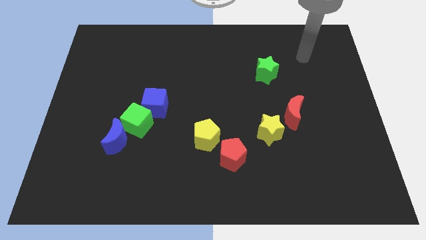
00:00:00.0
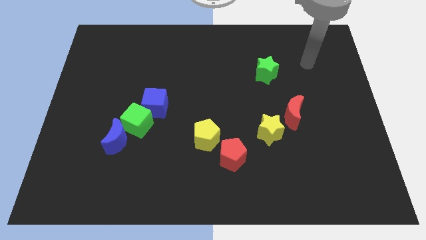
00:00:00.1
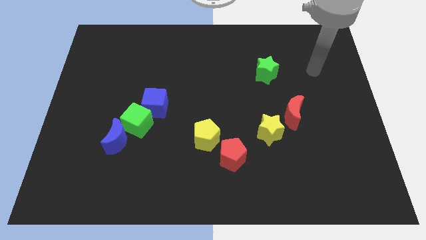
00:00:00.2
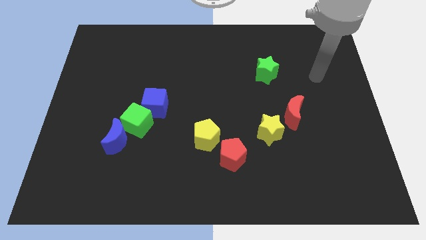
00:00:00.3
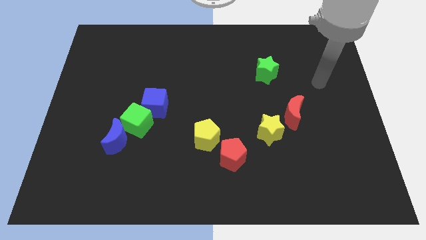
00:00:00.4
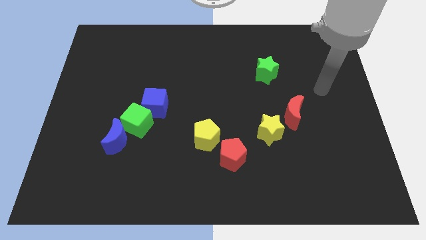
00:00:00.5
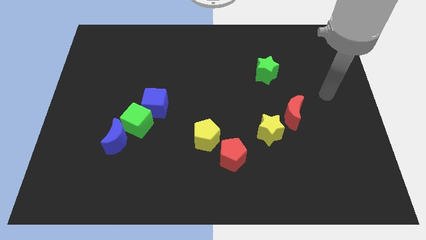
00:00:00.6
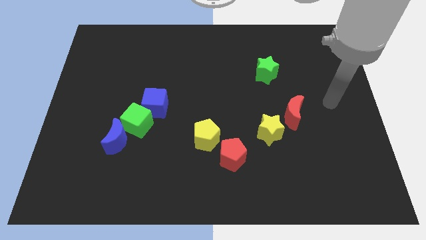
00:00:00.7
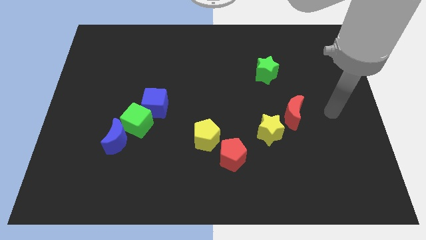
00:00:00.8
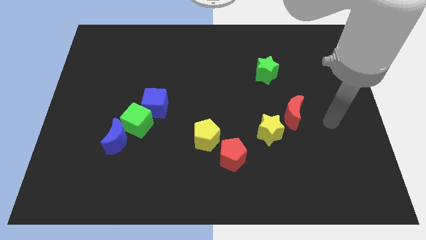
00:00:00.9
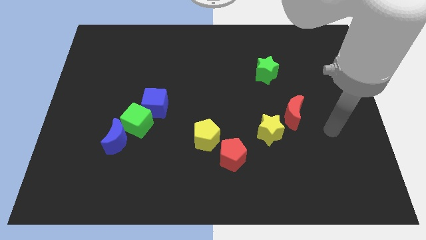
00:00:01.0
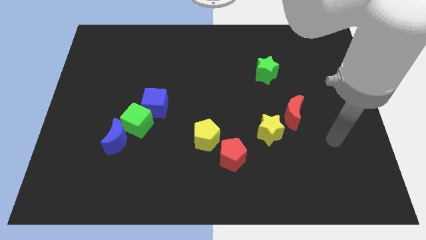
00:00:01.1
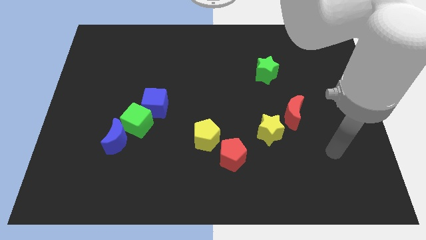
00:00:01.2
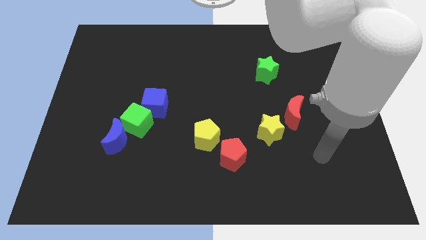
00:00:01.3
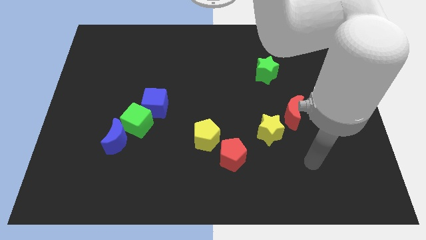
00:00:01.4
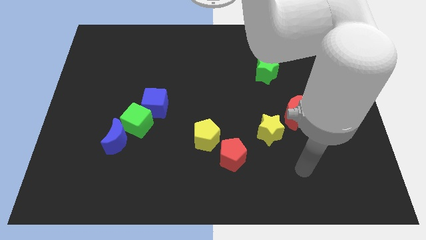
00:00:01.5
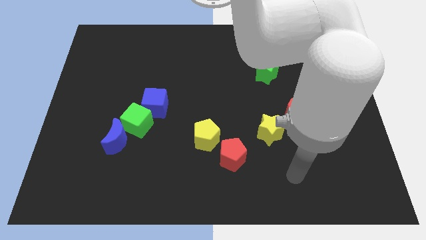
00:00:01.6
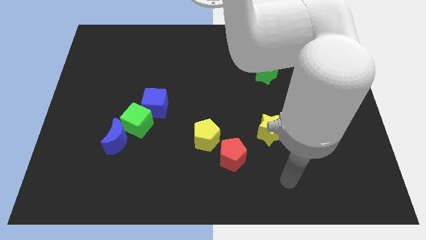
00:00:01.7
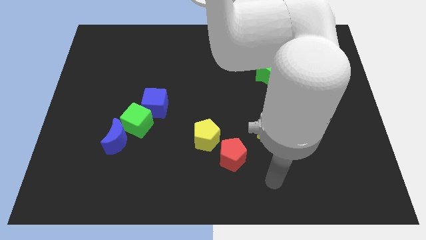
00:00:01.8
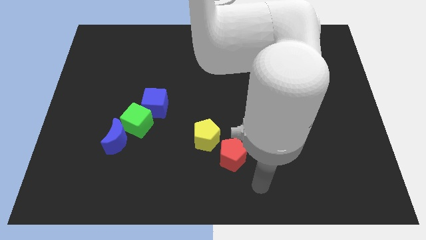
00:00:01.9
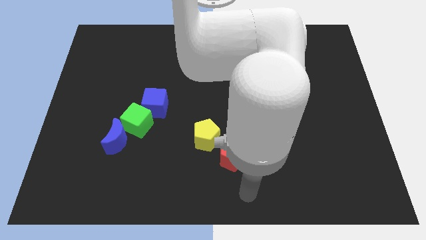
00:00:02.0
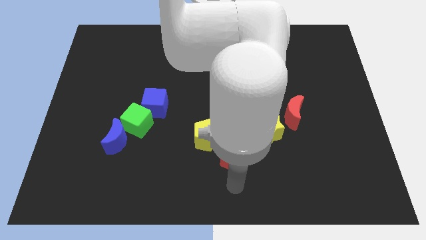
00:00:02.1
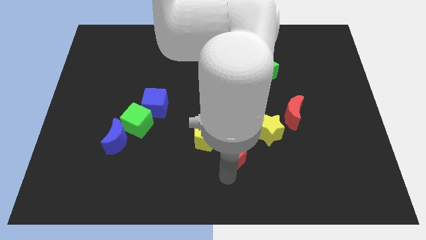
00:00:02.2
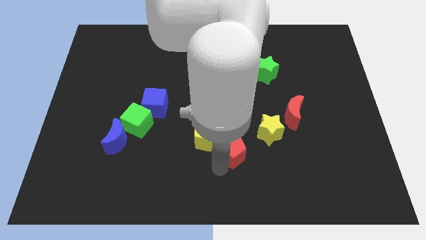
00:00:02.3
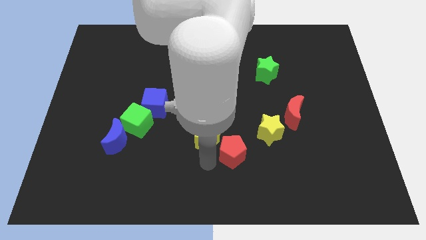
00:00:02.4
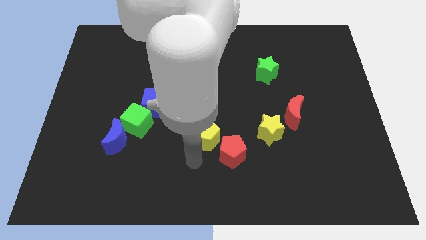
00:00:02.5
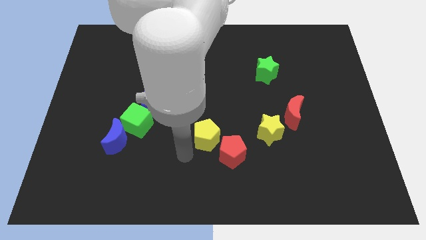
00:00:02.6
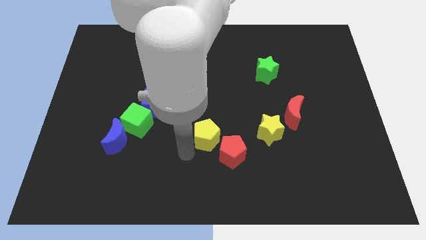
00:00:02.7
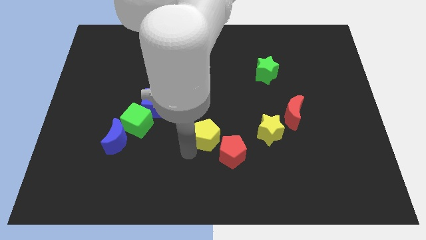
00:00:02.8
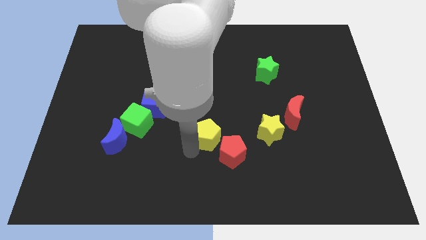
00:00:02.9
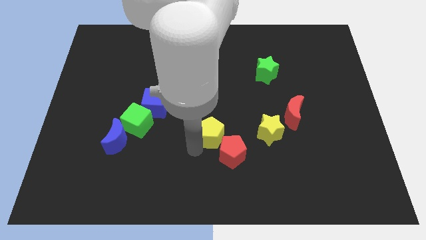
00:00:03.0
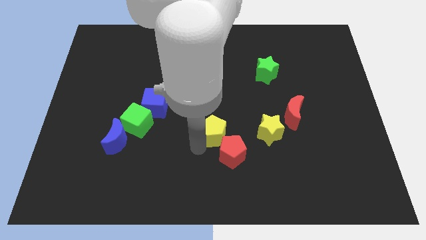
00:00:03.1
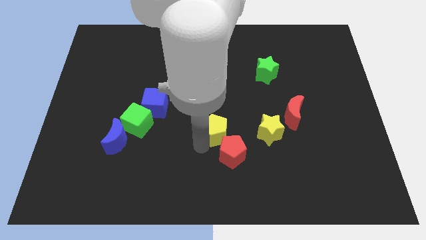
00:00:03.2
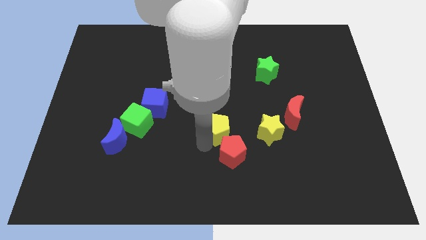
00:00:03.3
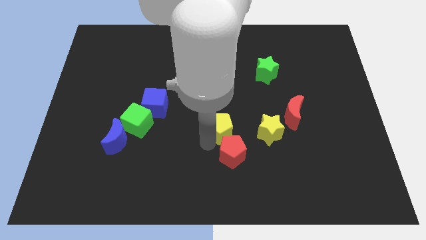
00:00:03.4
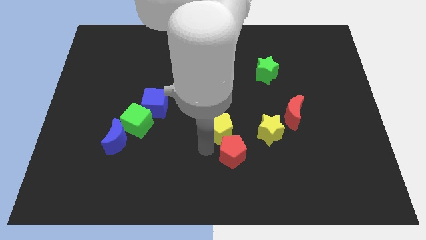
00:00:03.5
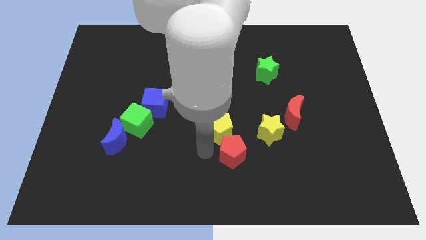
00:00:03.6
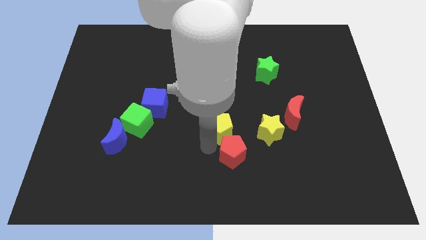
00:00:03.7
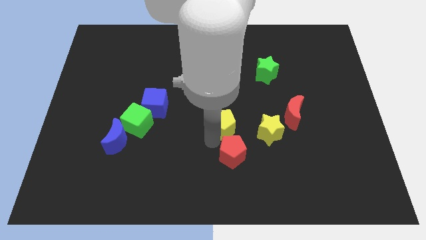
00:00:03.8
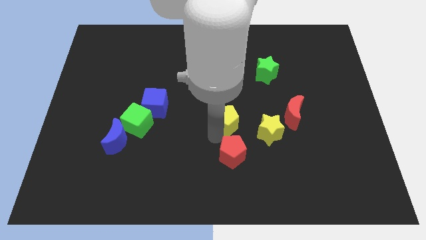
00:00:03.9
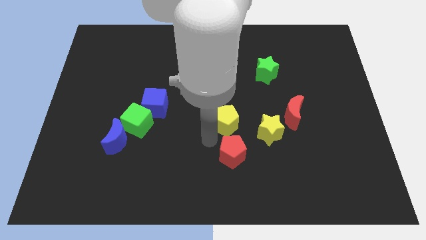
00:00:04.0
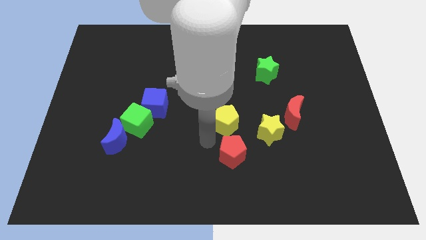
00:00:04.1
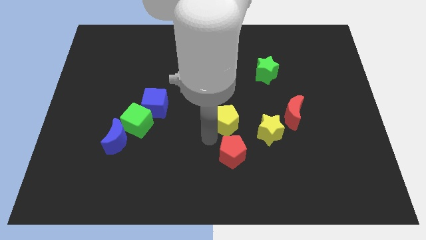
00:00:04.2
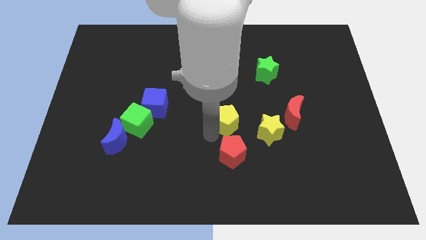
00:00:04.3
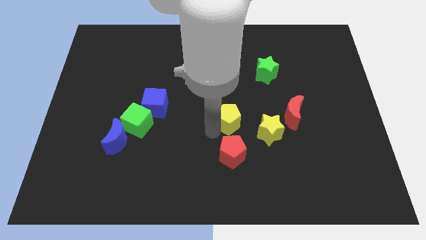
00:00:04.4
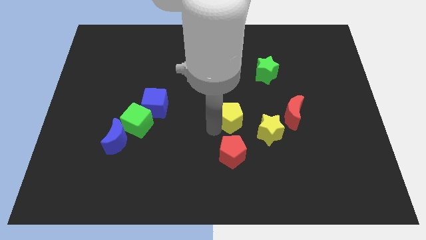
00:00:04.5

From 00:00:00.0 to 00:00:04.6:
slightly push the yellow pentagon up and then right

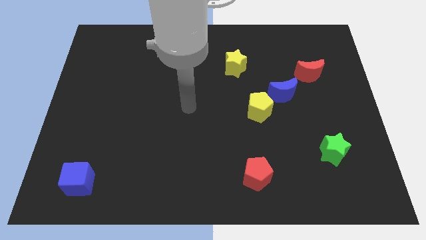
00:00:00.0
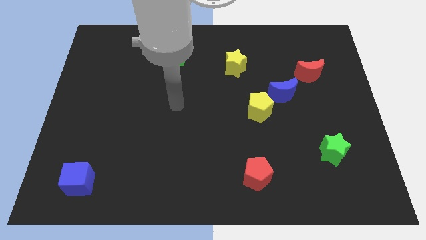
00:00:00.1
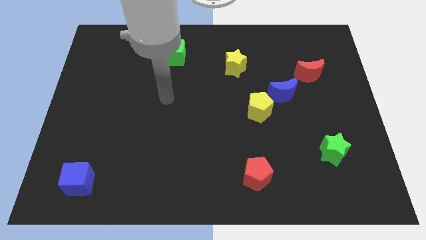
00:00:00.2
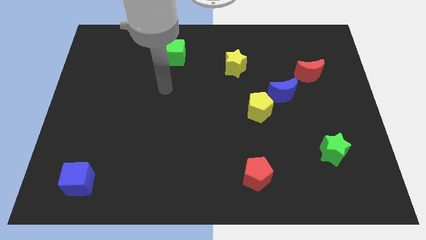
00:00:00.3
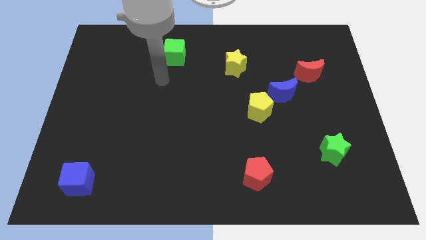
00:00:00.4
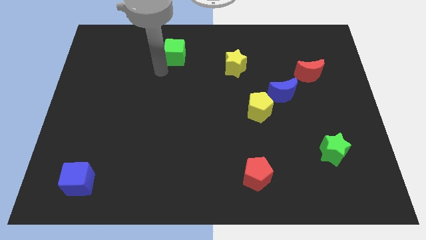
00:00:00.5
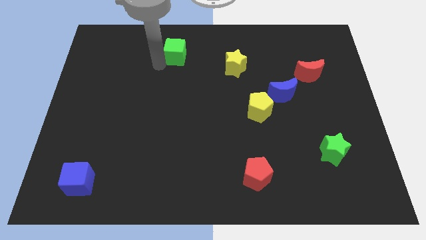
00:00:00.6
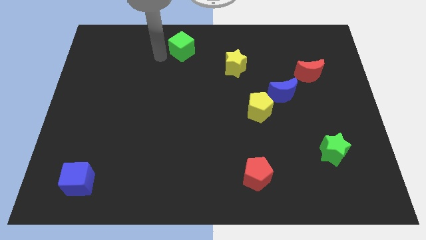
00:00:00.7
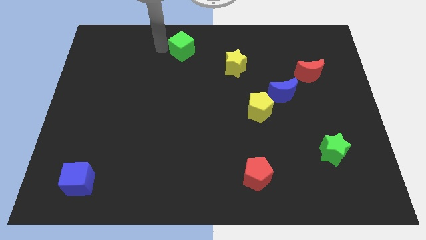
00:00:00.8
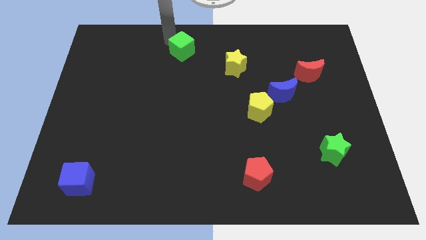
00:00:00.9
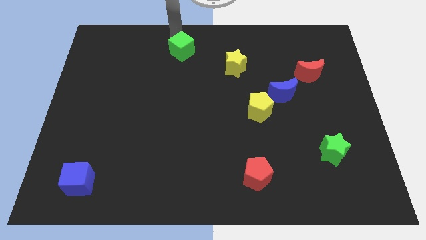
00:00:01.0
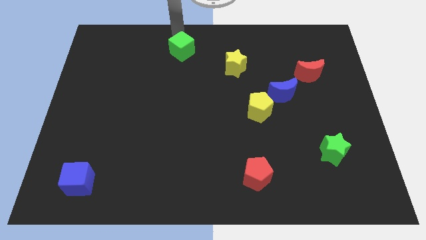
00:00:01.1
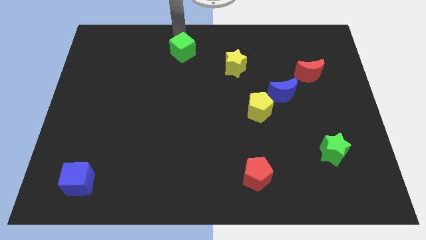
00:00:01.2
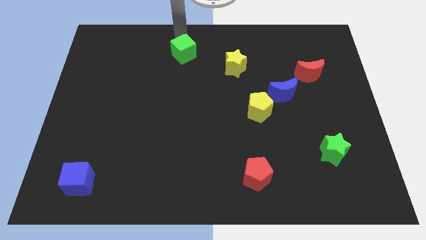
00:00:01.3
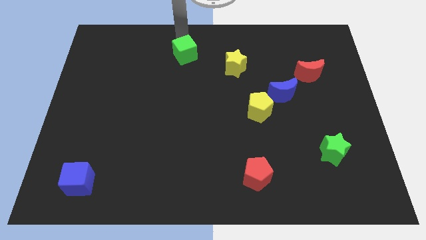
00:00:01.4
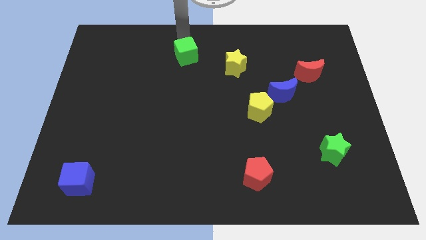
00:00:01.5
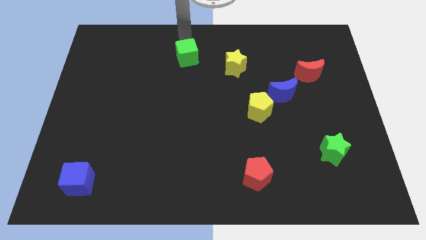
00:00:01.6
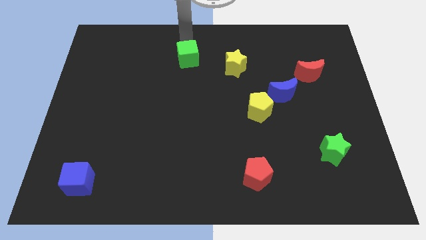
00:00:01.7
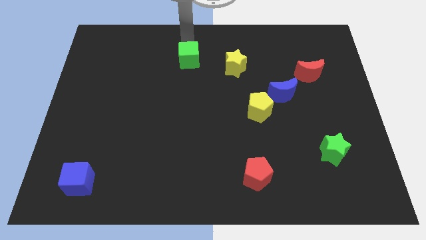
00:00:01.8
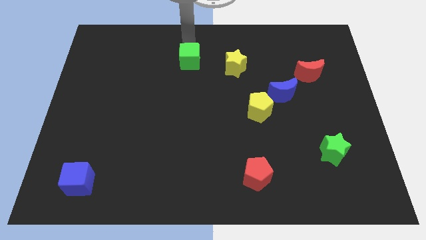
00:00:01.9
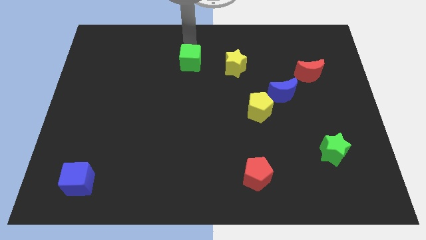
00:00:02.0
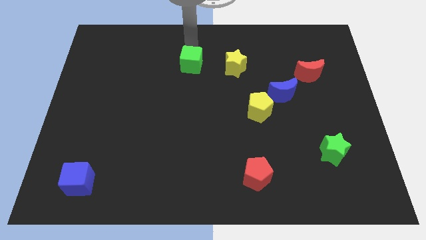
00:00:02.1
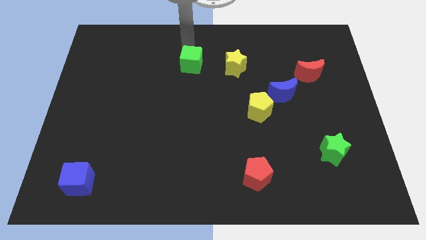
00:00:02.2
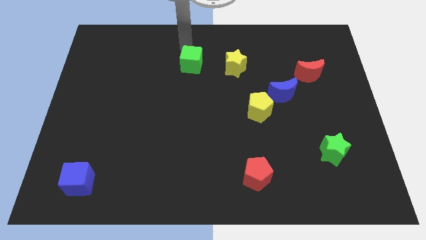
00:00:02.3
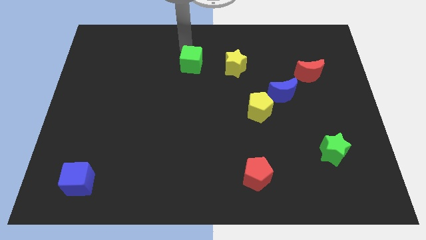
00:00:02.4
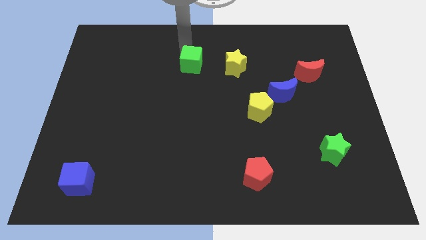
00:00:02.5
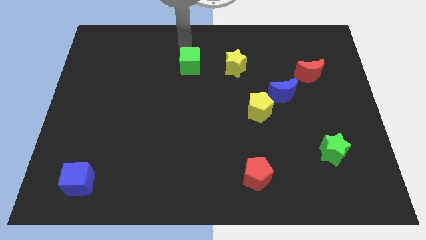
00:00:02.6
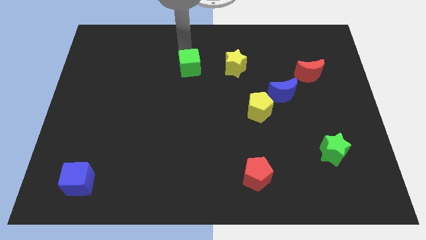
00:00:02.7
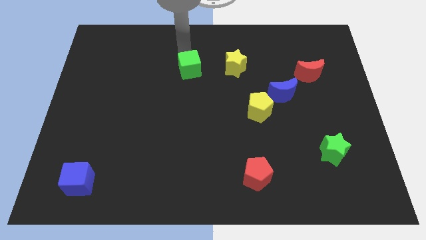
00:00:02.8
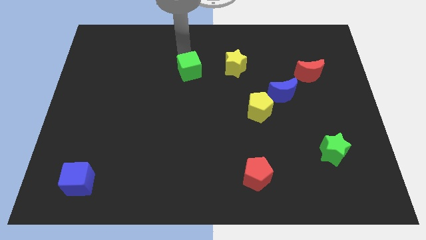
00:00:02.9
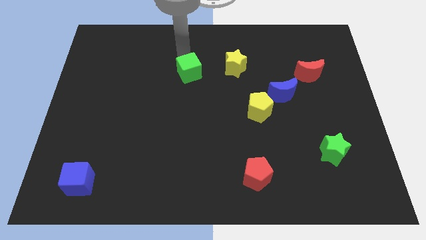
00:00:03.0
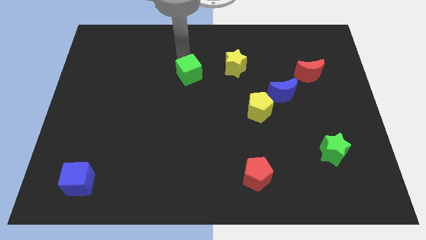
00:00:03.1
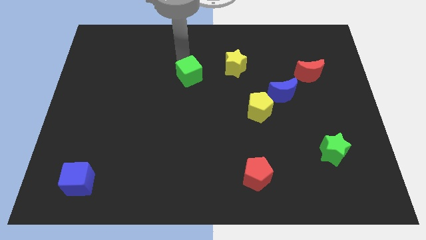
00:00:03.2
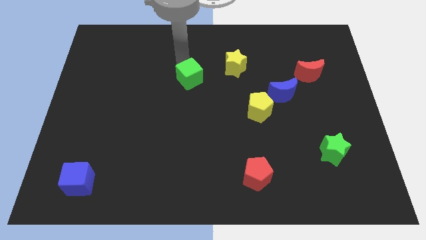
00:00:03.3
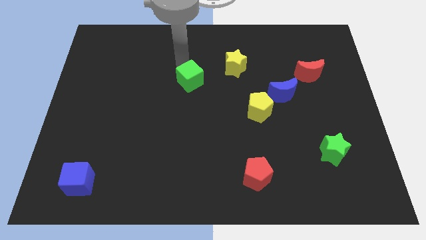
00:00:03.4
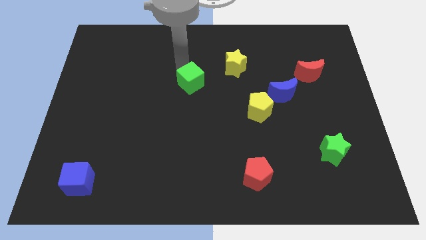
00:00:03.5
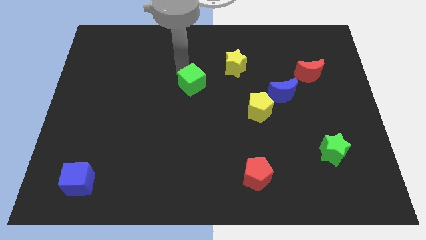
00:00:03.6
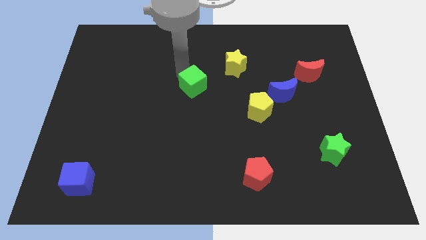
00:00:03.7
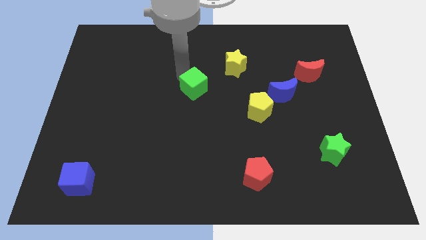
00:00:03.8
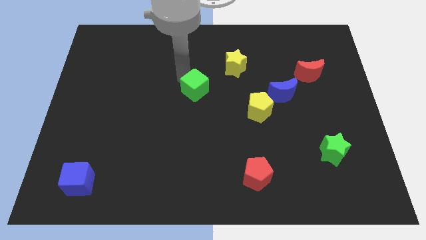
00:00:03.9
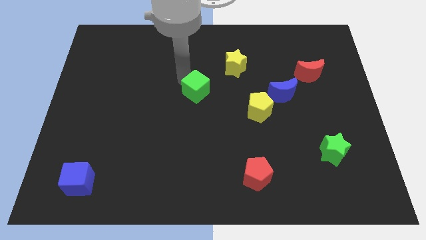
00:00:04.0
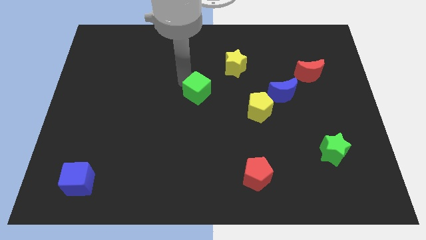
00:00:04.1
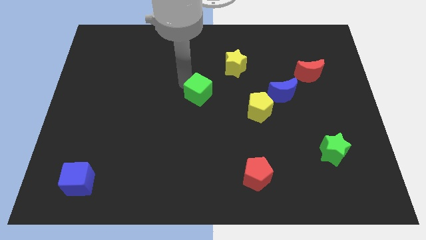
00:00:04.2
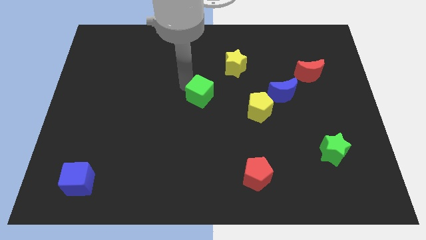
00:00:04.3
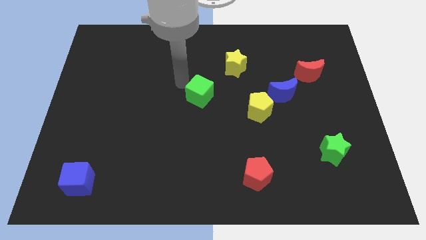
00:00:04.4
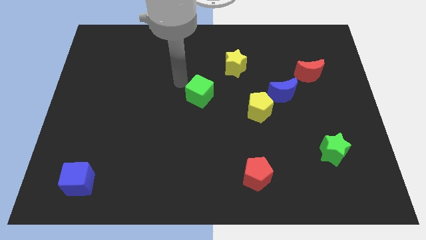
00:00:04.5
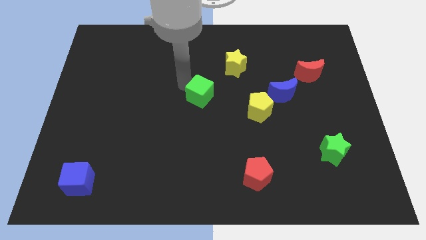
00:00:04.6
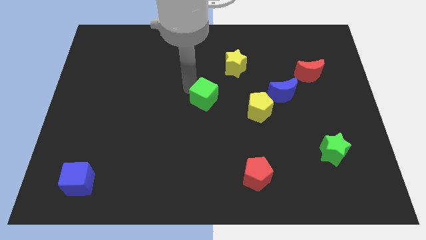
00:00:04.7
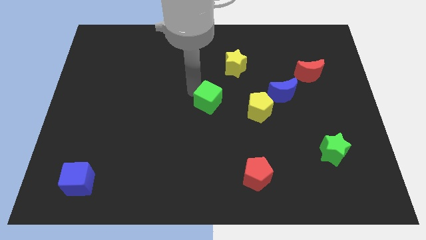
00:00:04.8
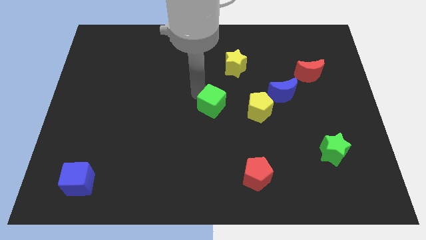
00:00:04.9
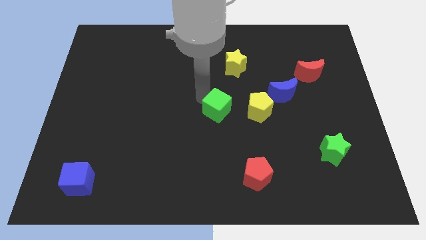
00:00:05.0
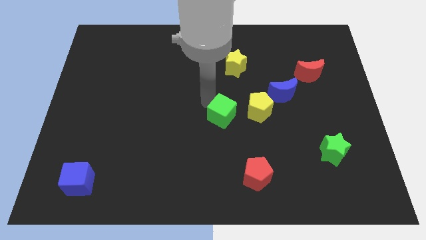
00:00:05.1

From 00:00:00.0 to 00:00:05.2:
push the green cube downwards and then right
